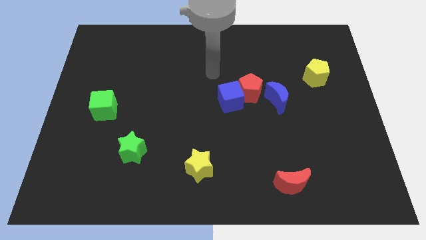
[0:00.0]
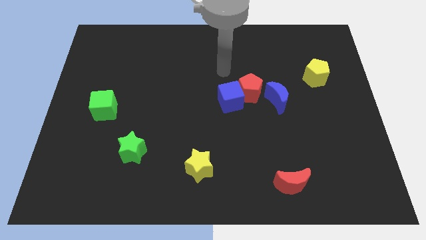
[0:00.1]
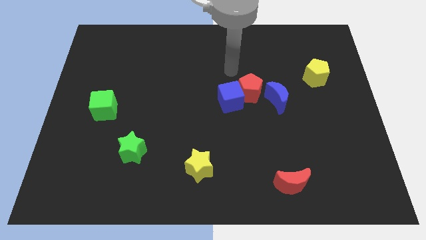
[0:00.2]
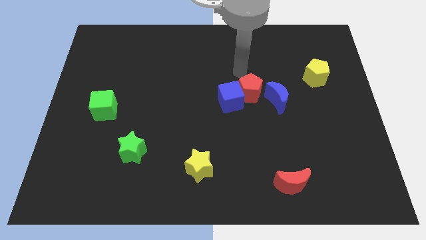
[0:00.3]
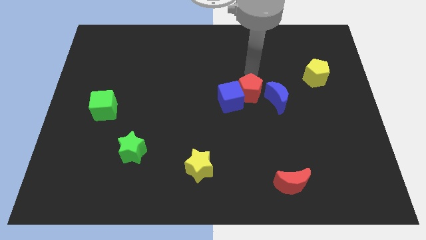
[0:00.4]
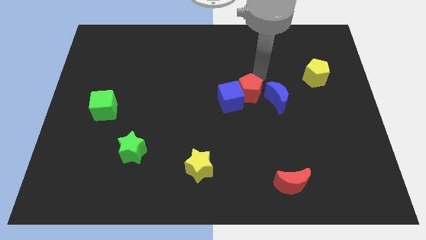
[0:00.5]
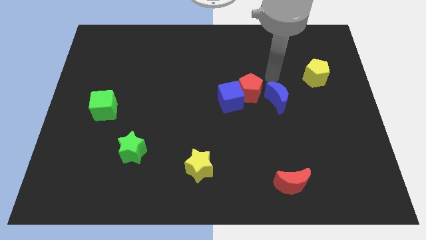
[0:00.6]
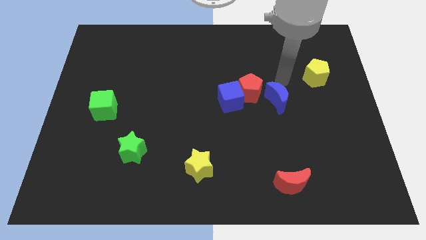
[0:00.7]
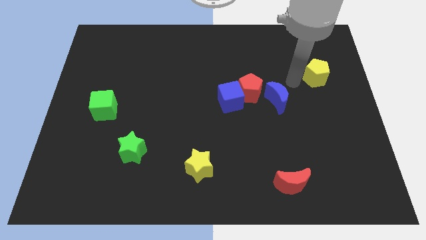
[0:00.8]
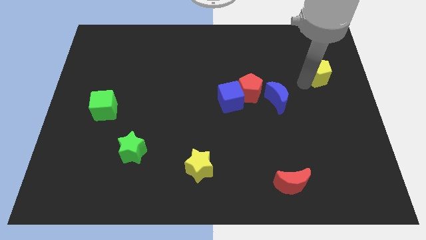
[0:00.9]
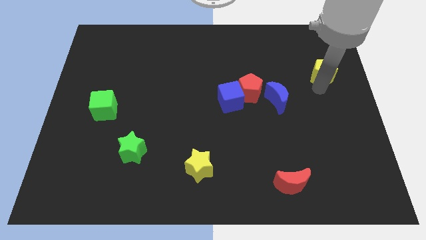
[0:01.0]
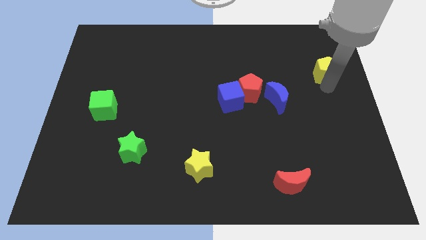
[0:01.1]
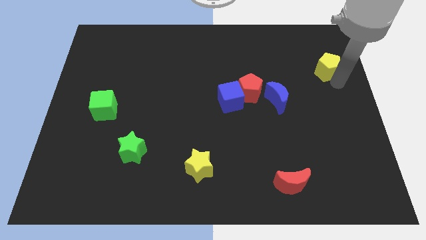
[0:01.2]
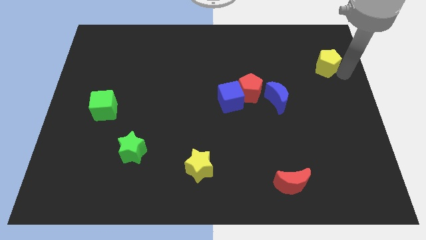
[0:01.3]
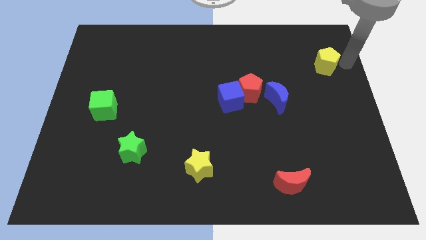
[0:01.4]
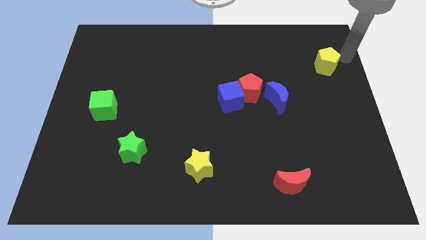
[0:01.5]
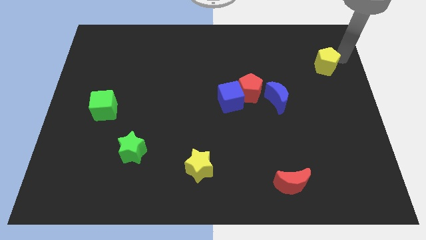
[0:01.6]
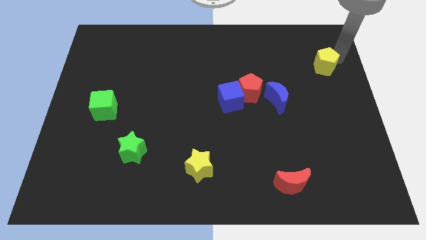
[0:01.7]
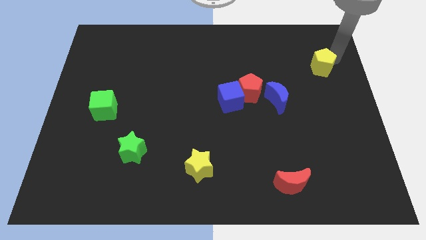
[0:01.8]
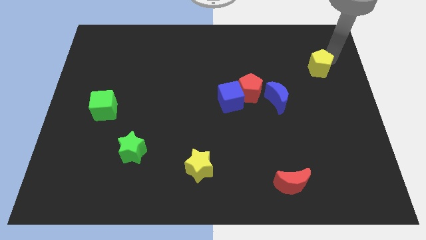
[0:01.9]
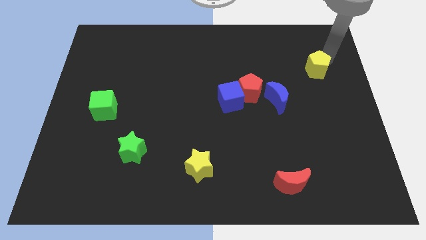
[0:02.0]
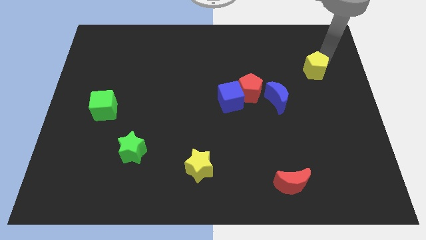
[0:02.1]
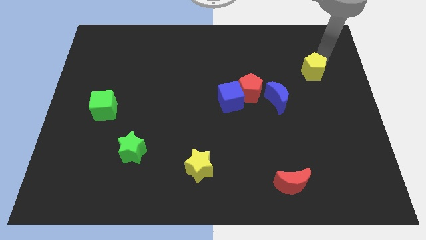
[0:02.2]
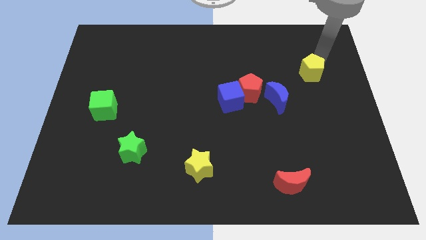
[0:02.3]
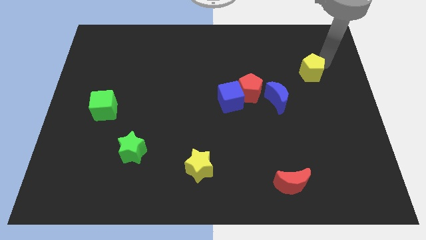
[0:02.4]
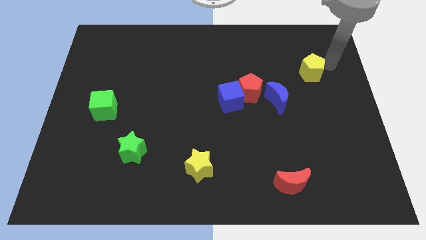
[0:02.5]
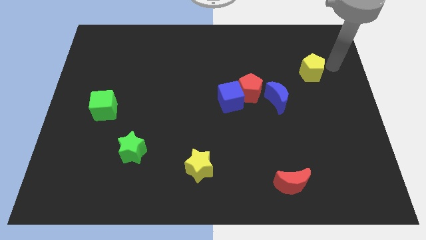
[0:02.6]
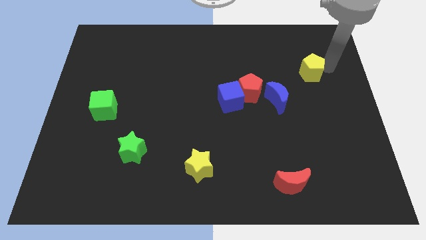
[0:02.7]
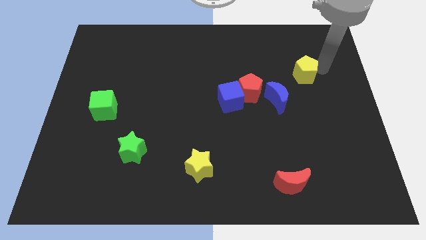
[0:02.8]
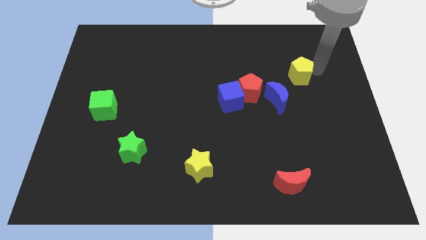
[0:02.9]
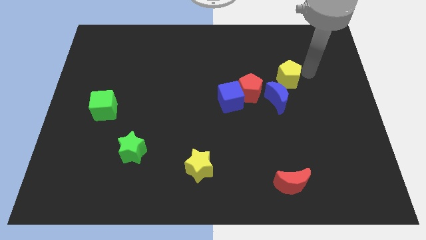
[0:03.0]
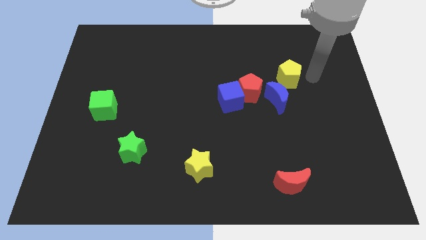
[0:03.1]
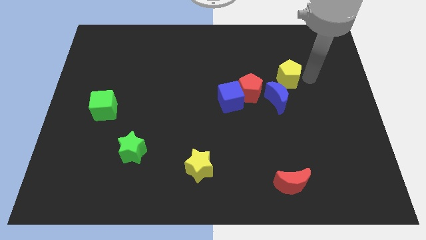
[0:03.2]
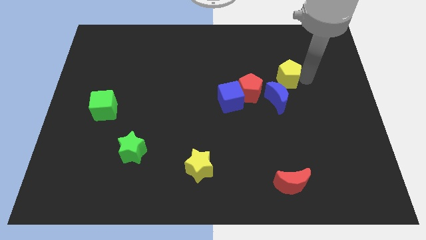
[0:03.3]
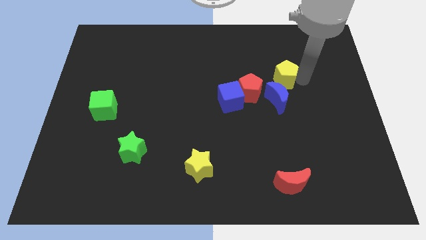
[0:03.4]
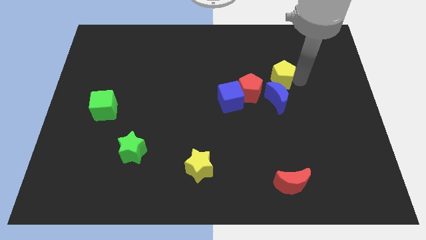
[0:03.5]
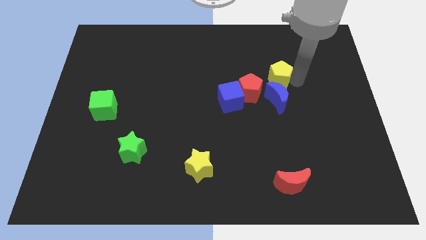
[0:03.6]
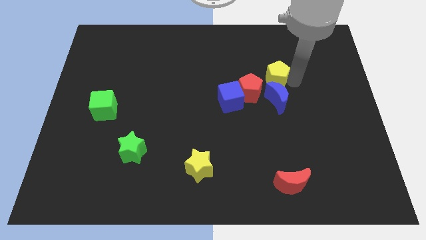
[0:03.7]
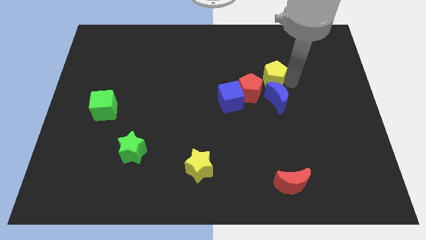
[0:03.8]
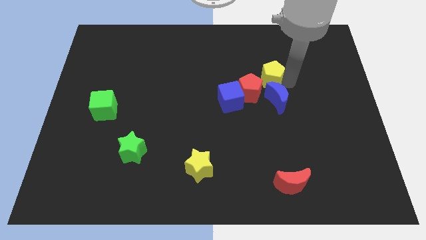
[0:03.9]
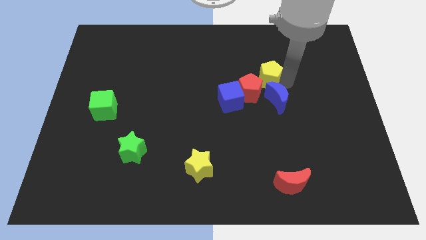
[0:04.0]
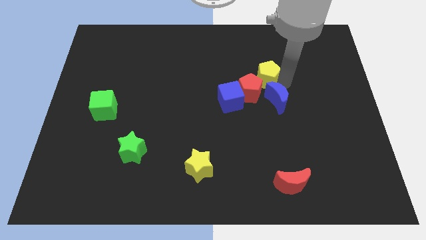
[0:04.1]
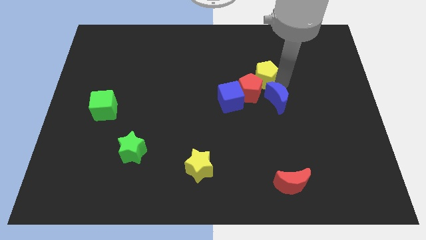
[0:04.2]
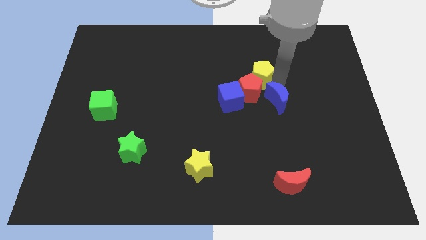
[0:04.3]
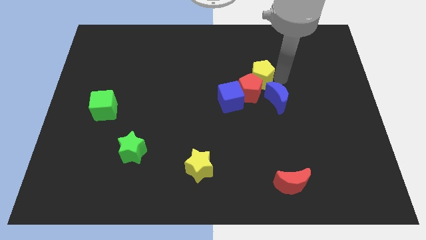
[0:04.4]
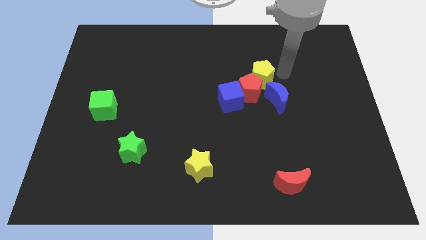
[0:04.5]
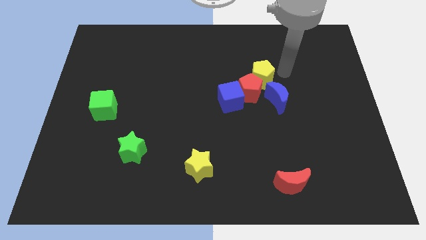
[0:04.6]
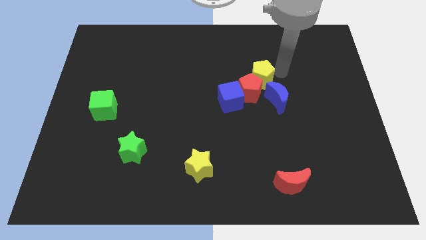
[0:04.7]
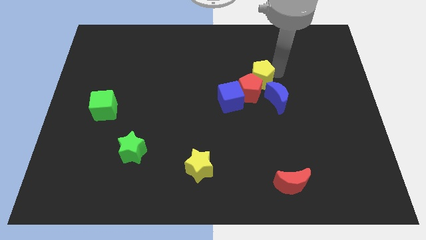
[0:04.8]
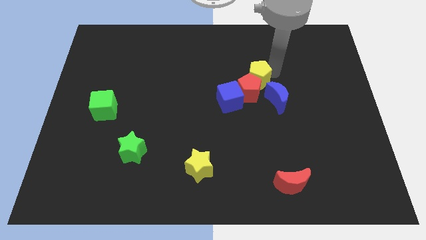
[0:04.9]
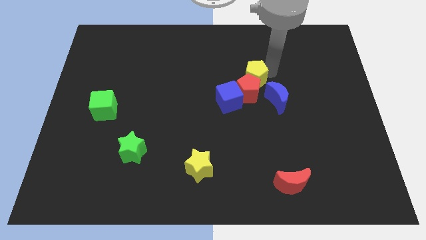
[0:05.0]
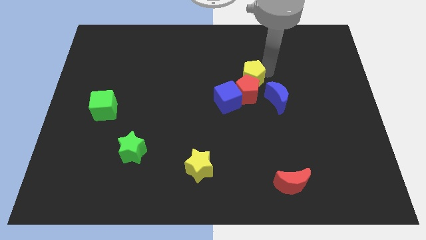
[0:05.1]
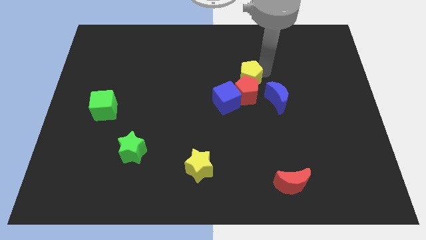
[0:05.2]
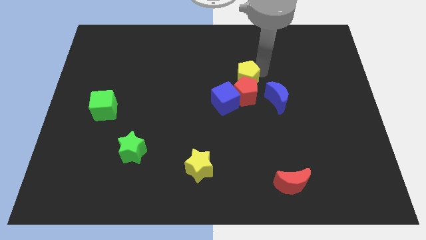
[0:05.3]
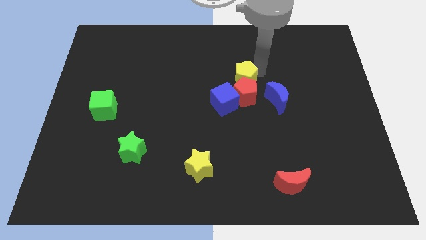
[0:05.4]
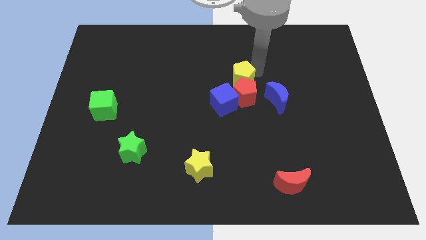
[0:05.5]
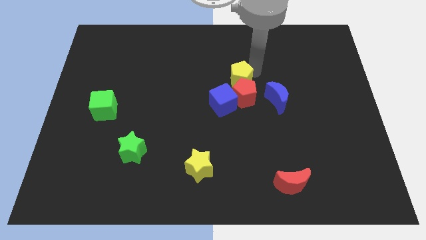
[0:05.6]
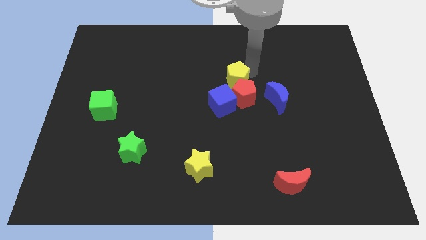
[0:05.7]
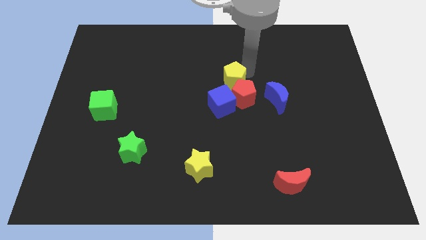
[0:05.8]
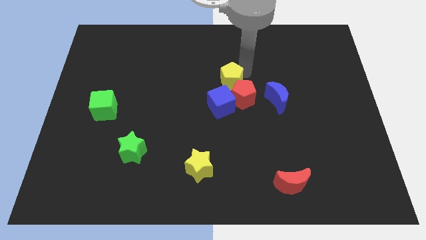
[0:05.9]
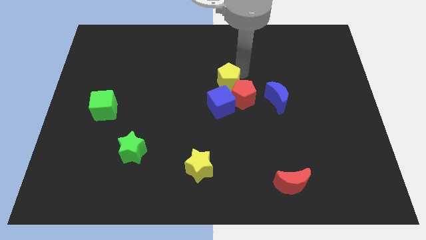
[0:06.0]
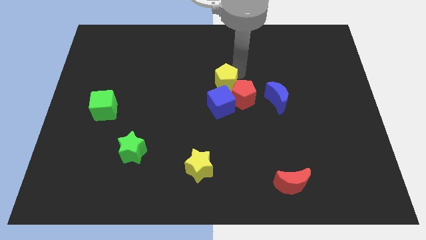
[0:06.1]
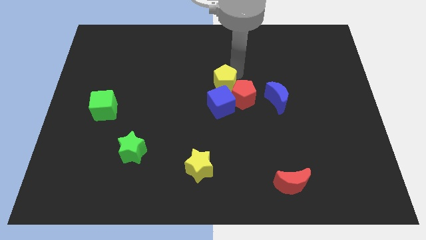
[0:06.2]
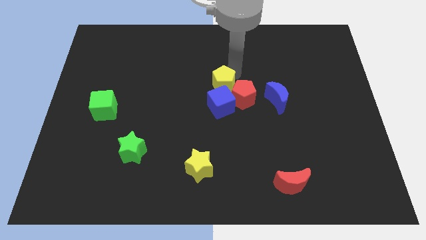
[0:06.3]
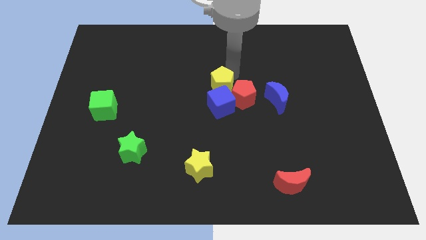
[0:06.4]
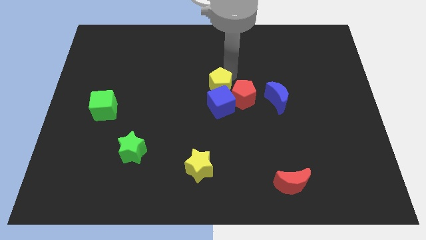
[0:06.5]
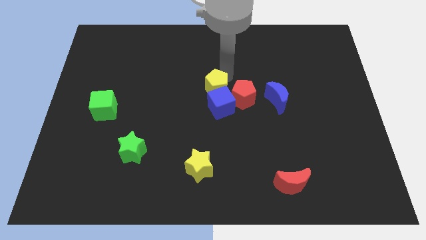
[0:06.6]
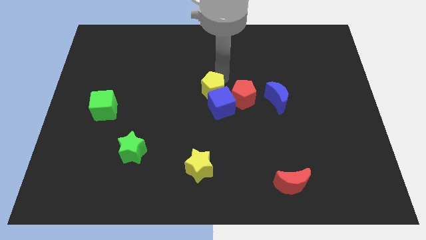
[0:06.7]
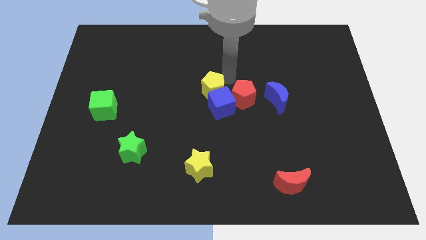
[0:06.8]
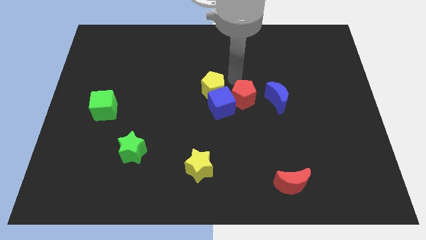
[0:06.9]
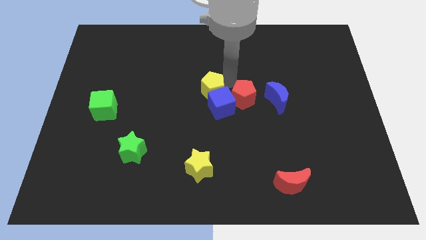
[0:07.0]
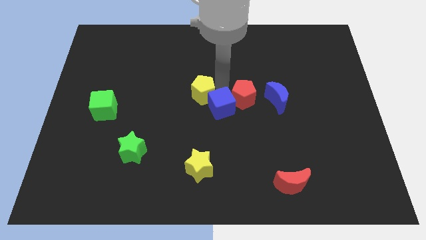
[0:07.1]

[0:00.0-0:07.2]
put the yellow pentagon left of the blue cube
